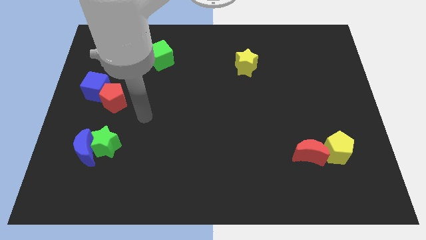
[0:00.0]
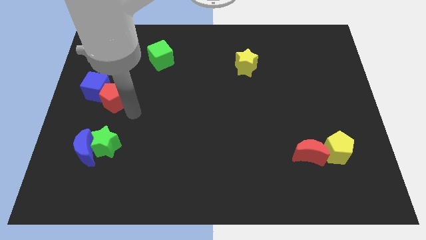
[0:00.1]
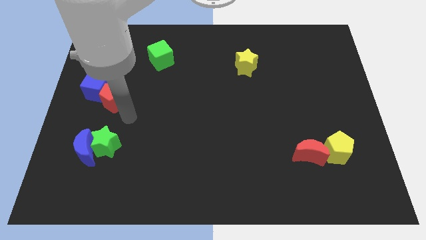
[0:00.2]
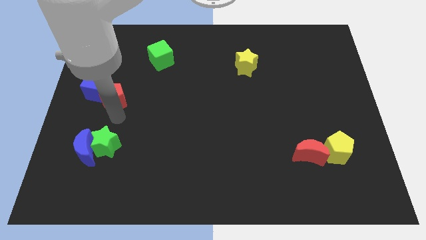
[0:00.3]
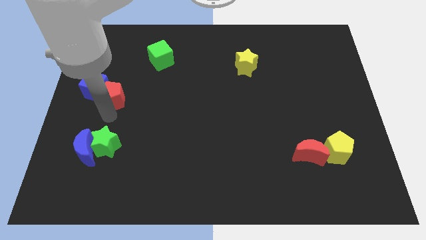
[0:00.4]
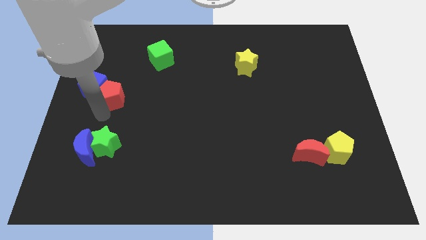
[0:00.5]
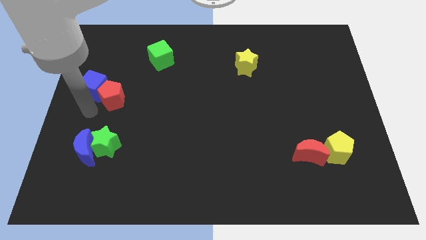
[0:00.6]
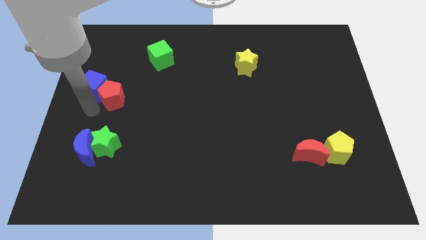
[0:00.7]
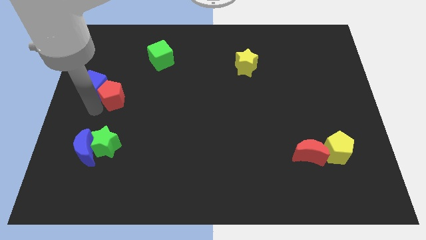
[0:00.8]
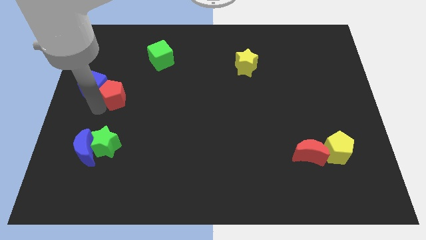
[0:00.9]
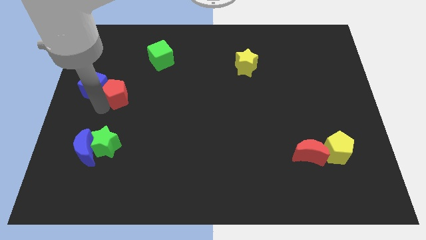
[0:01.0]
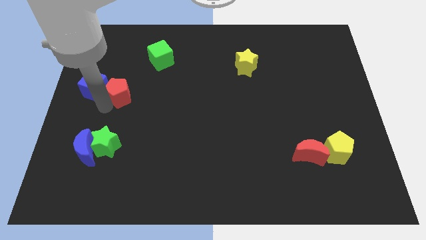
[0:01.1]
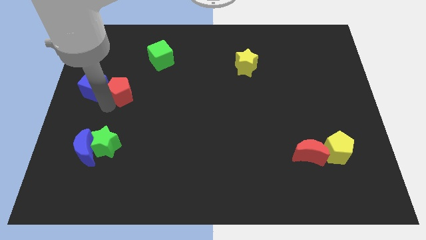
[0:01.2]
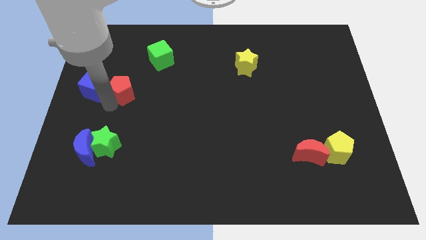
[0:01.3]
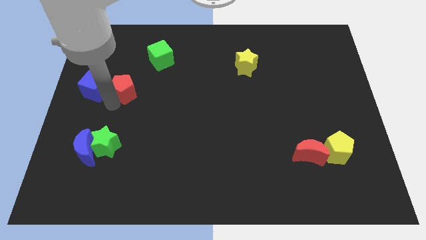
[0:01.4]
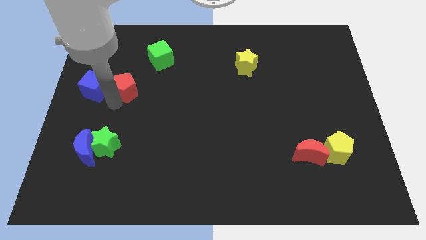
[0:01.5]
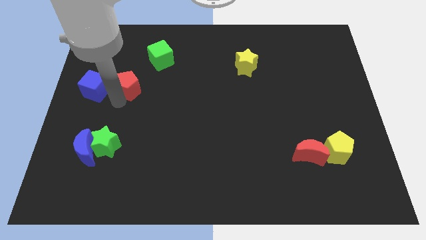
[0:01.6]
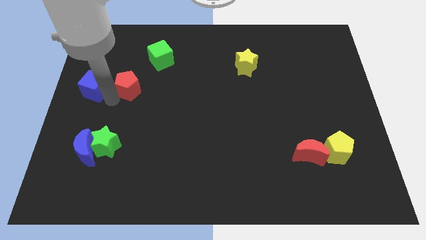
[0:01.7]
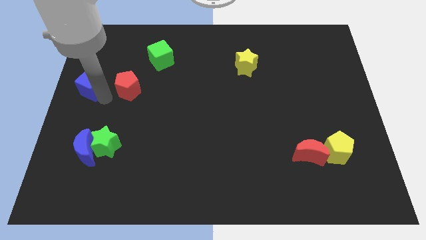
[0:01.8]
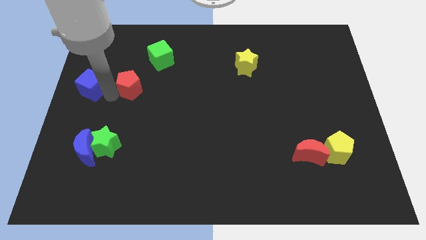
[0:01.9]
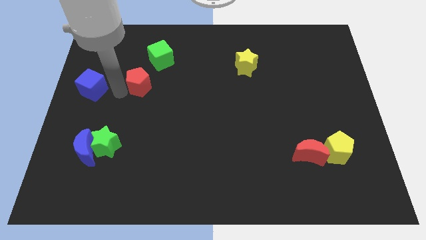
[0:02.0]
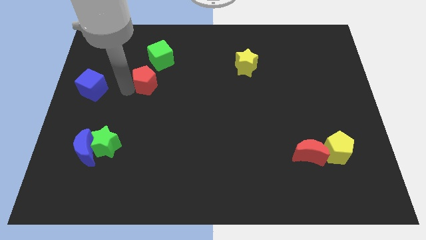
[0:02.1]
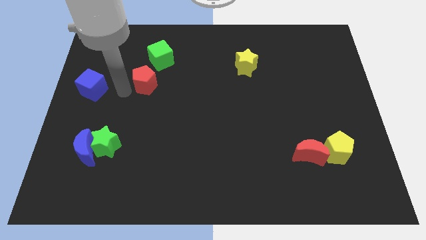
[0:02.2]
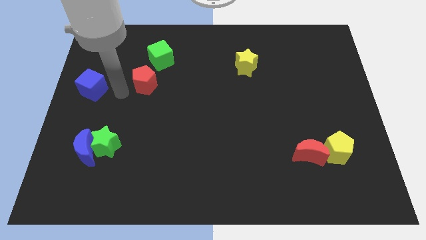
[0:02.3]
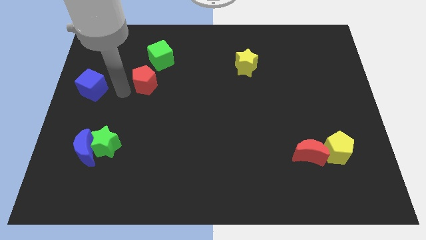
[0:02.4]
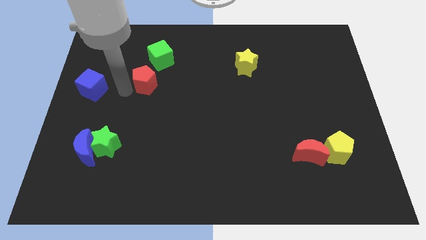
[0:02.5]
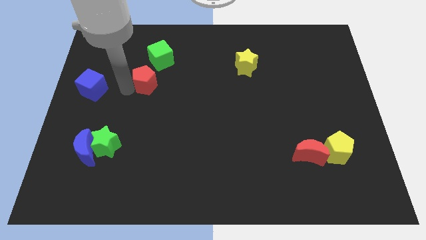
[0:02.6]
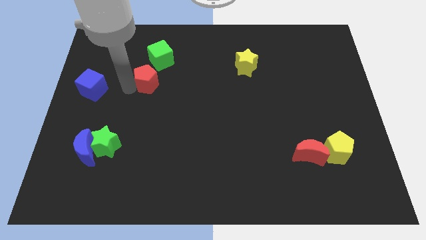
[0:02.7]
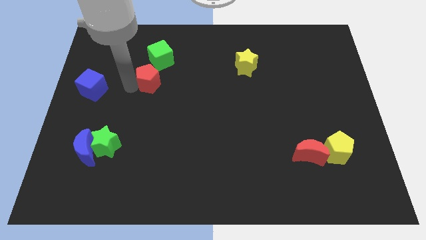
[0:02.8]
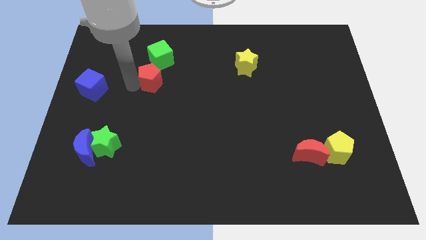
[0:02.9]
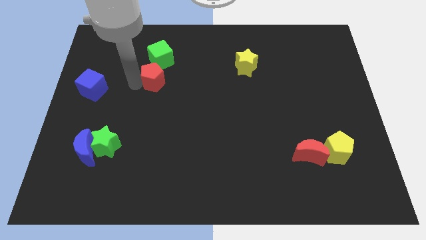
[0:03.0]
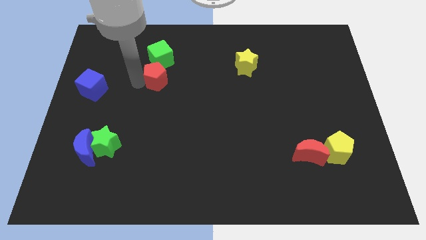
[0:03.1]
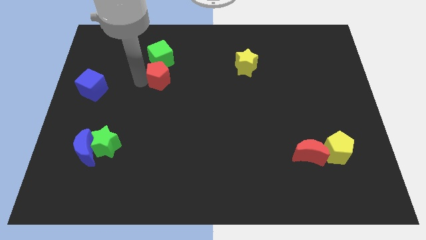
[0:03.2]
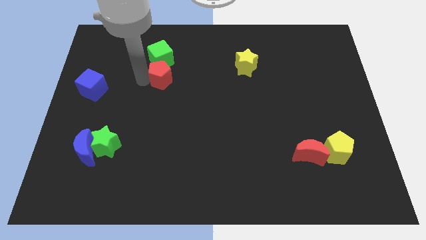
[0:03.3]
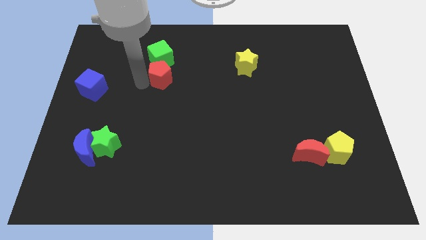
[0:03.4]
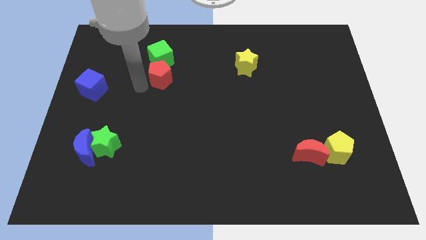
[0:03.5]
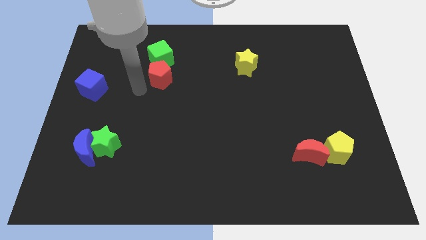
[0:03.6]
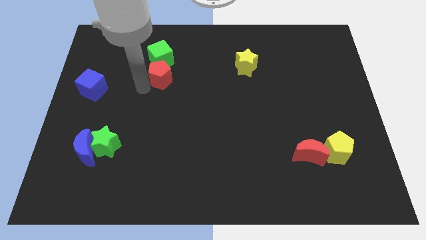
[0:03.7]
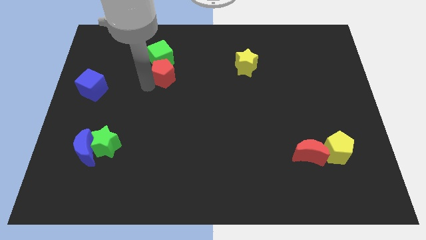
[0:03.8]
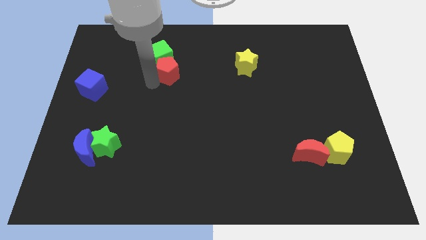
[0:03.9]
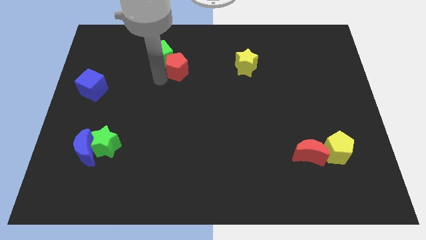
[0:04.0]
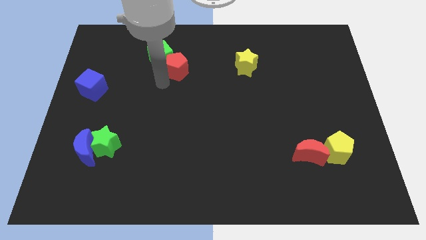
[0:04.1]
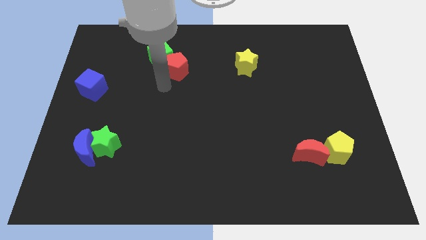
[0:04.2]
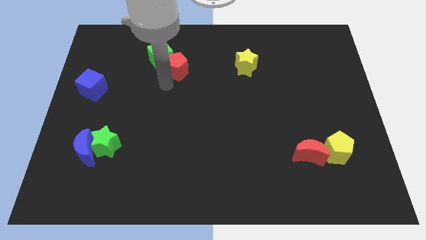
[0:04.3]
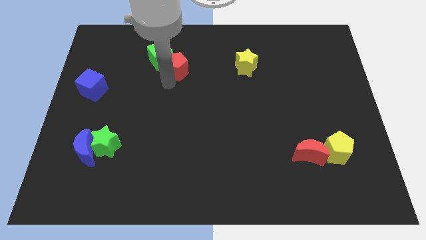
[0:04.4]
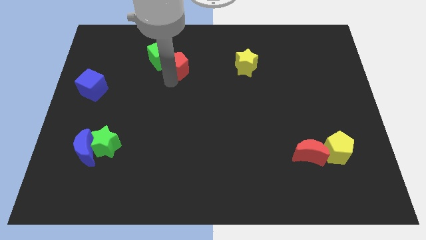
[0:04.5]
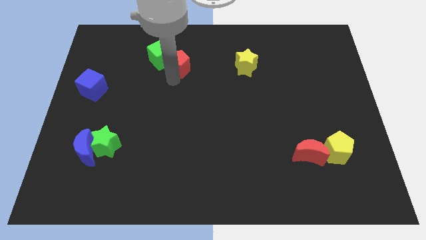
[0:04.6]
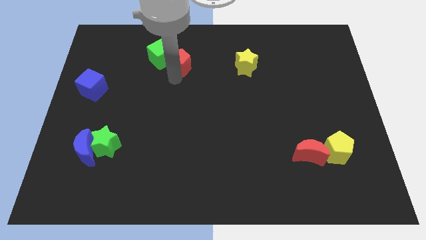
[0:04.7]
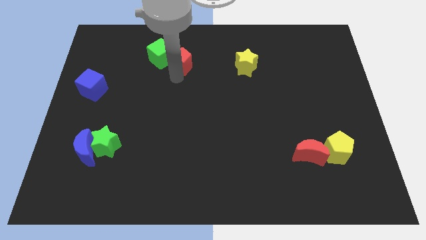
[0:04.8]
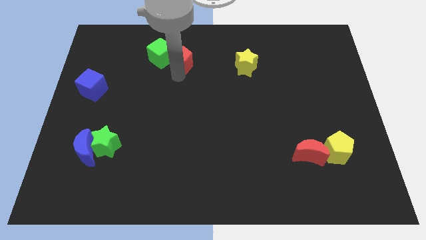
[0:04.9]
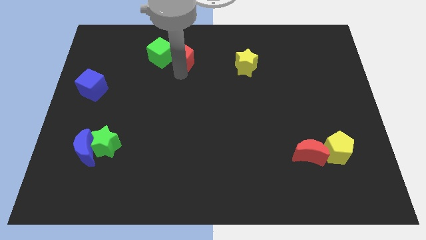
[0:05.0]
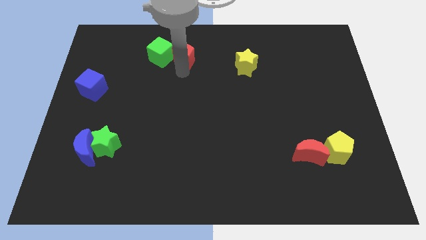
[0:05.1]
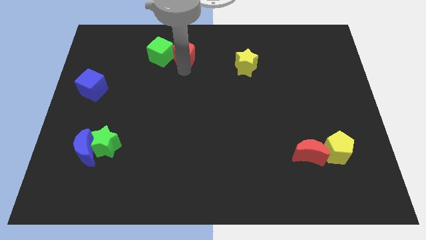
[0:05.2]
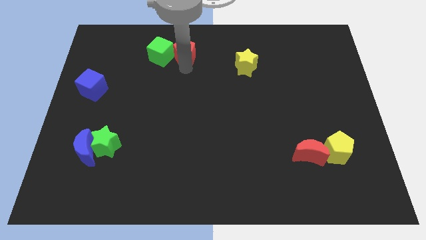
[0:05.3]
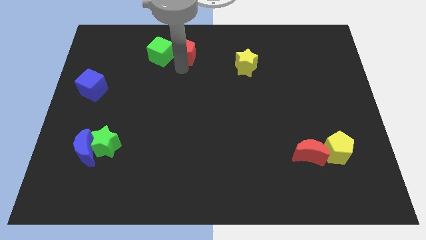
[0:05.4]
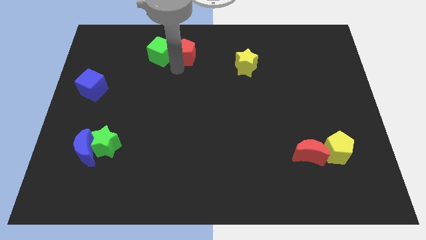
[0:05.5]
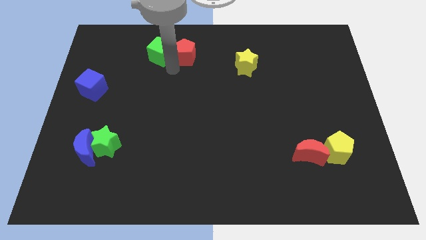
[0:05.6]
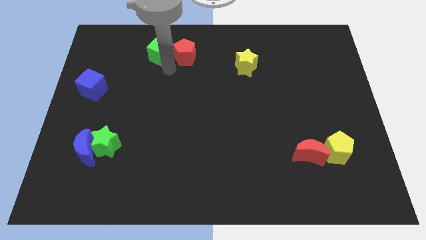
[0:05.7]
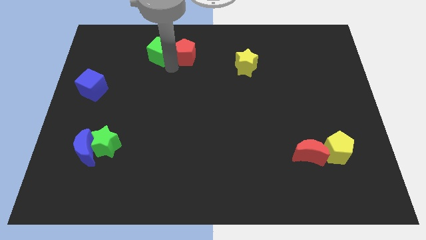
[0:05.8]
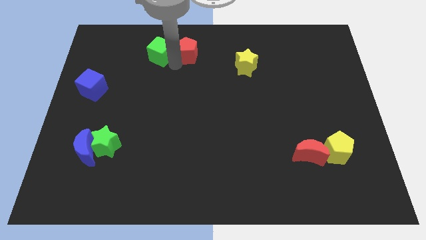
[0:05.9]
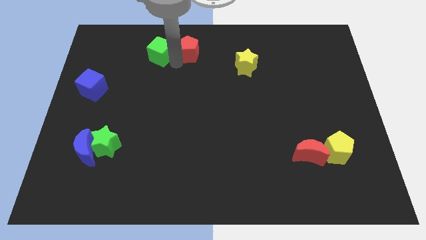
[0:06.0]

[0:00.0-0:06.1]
push the red pentagon to the towards your base

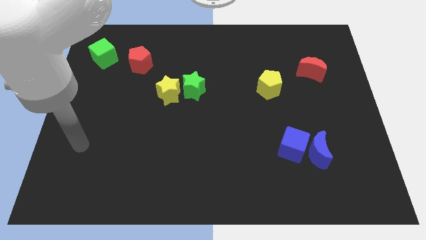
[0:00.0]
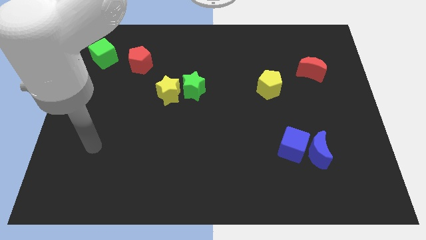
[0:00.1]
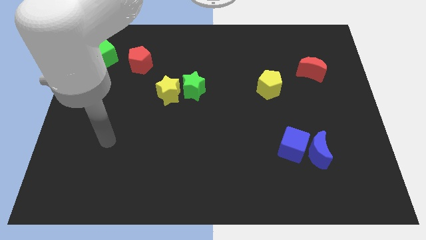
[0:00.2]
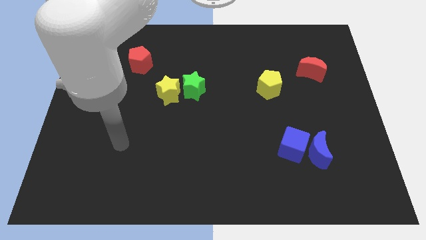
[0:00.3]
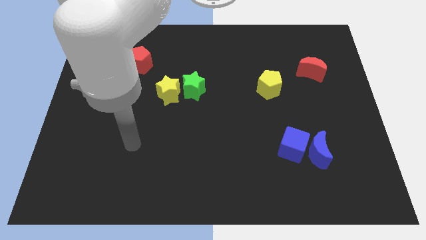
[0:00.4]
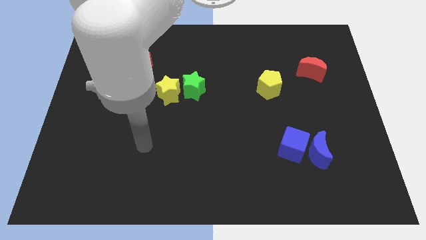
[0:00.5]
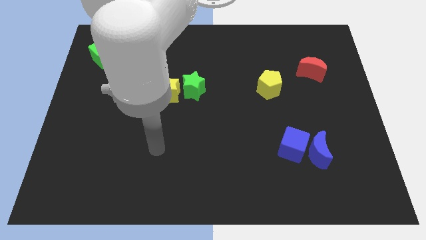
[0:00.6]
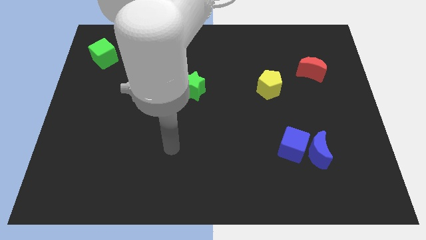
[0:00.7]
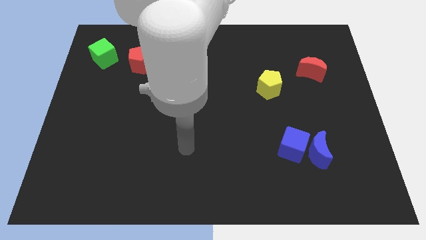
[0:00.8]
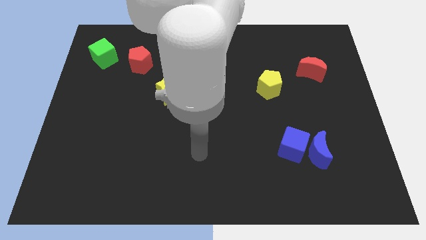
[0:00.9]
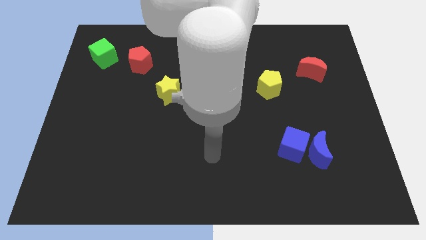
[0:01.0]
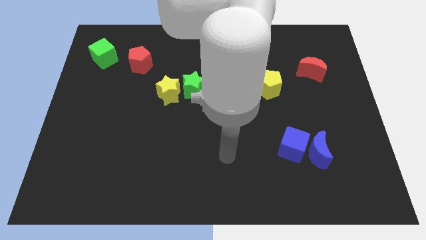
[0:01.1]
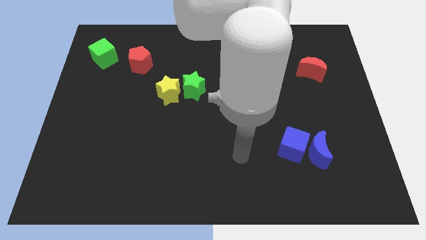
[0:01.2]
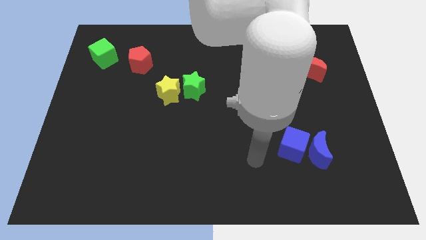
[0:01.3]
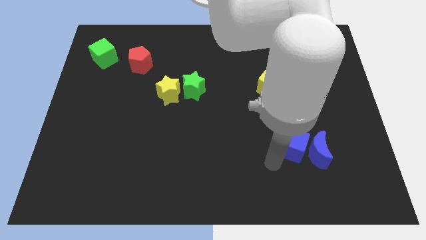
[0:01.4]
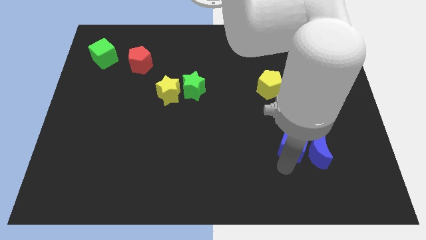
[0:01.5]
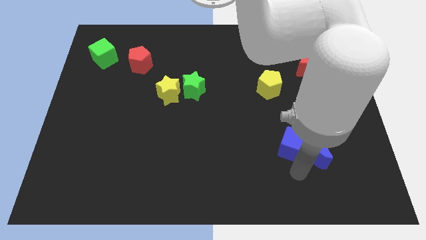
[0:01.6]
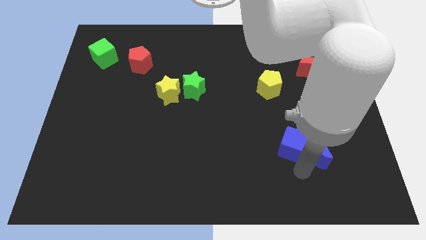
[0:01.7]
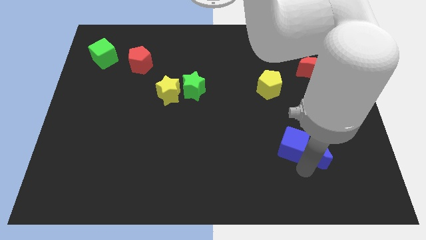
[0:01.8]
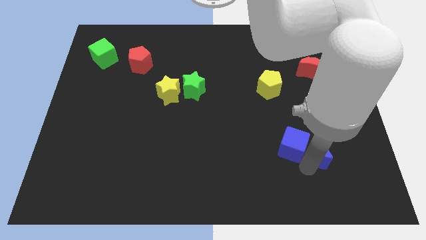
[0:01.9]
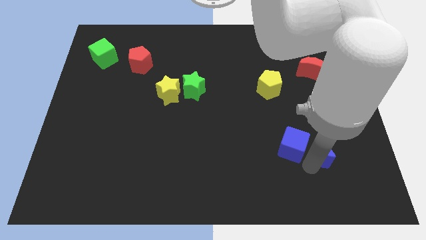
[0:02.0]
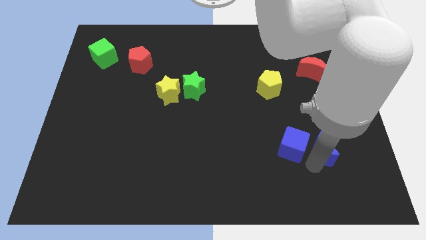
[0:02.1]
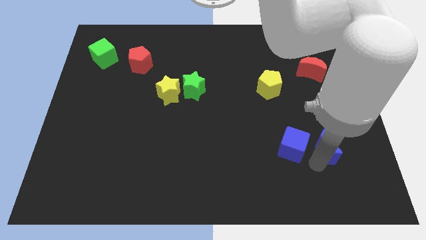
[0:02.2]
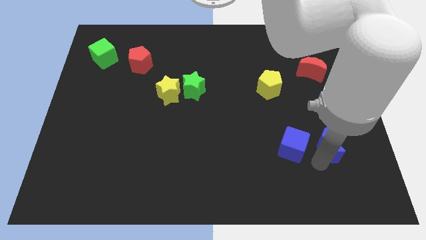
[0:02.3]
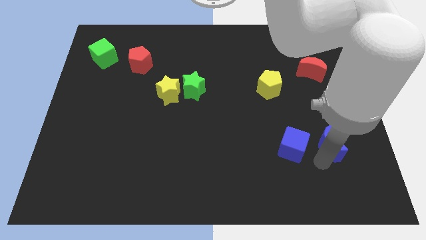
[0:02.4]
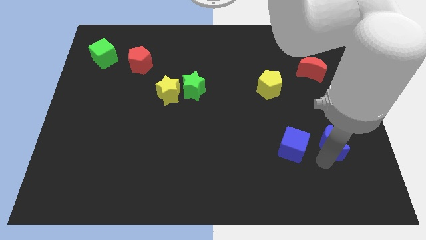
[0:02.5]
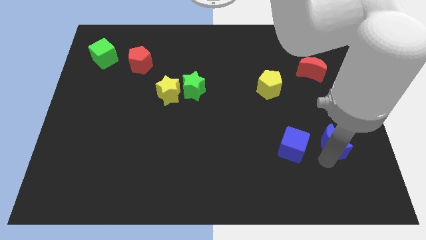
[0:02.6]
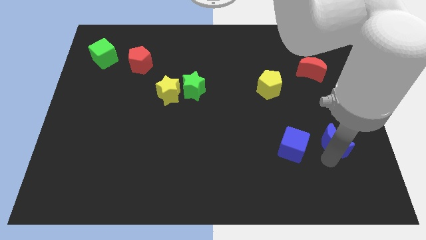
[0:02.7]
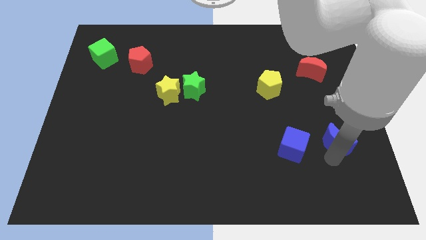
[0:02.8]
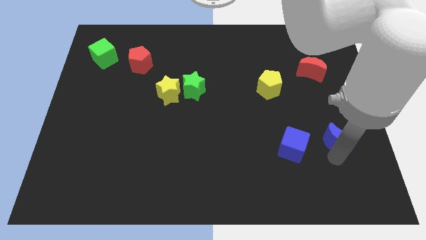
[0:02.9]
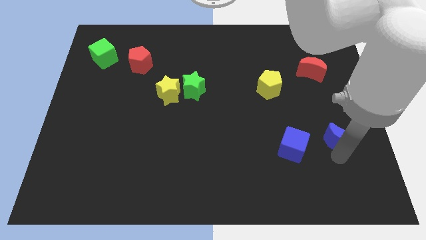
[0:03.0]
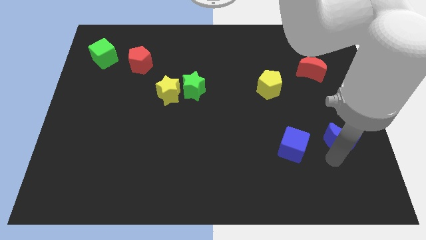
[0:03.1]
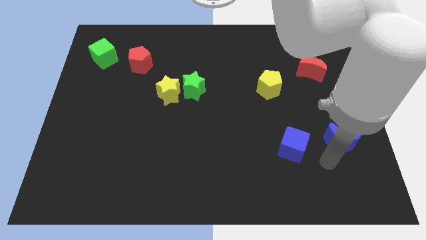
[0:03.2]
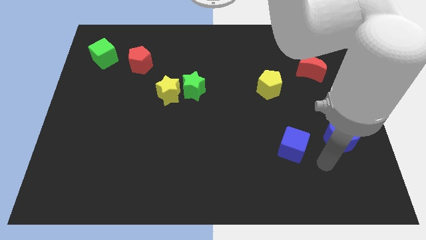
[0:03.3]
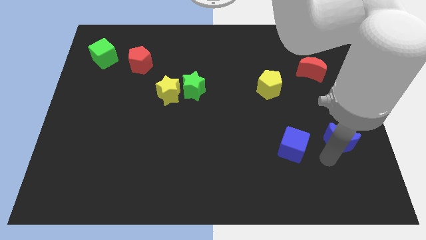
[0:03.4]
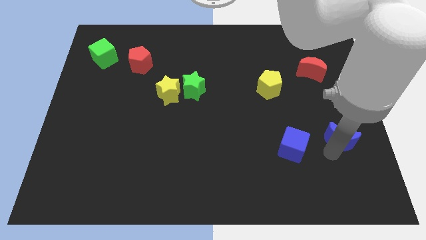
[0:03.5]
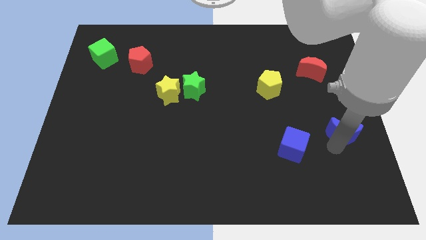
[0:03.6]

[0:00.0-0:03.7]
slide the blue moon to the right side
